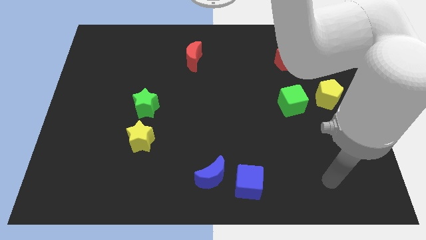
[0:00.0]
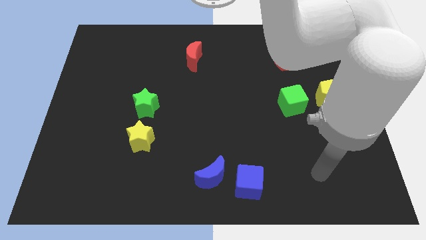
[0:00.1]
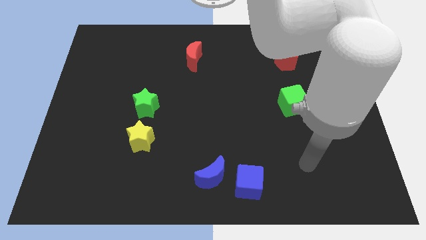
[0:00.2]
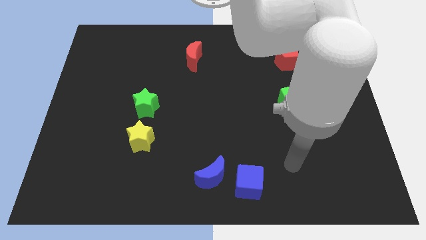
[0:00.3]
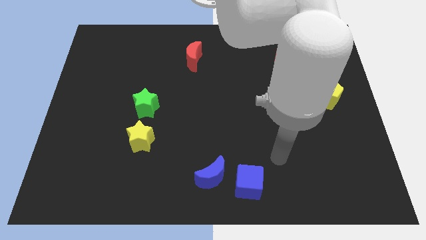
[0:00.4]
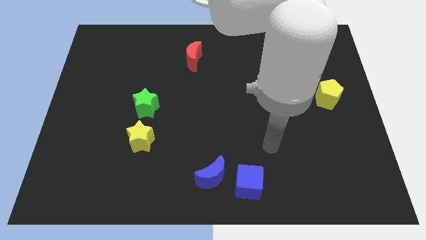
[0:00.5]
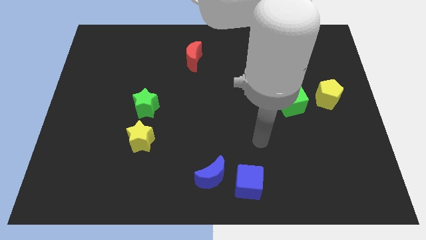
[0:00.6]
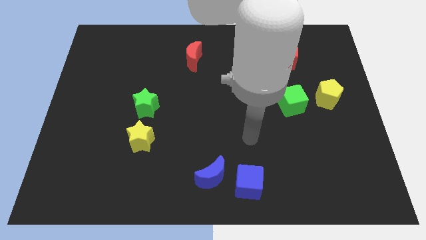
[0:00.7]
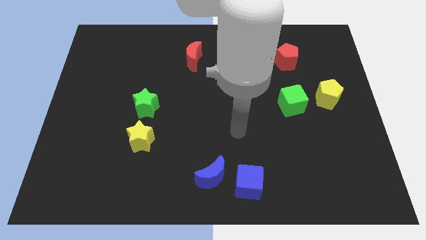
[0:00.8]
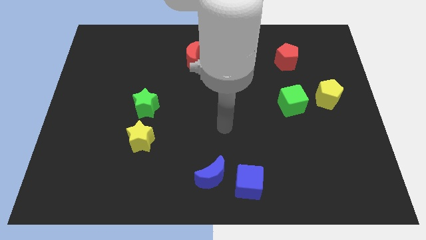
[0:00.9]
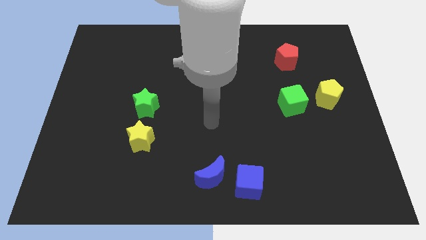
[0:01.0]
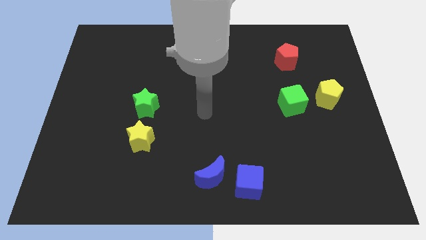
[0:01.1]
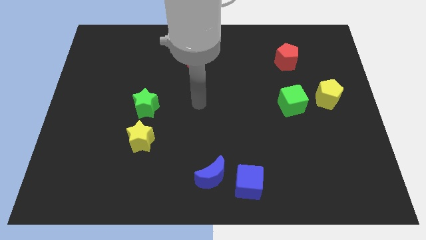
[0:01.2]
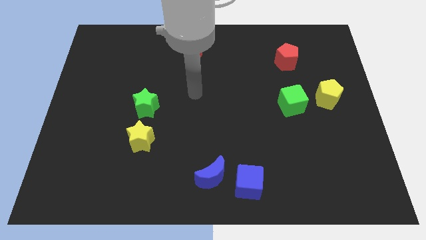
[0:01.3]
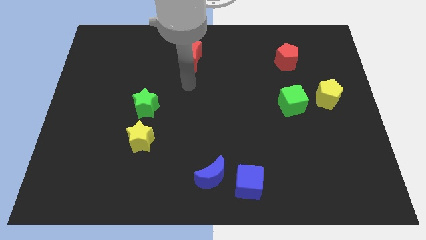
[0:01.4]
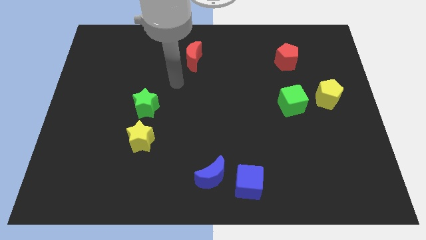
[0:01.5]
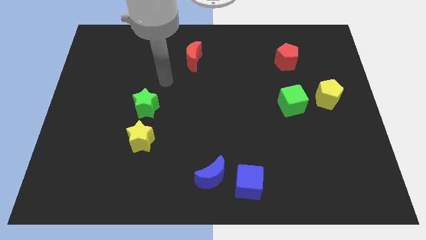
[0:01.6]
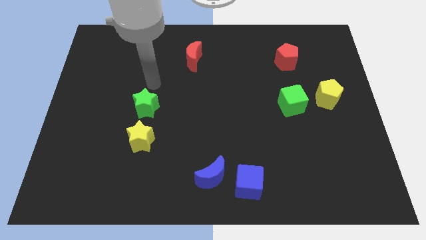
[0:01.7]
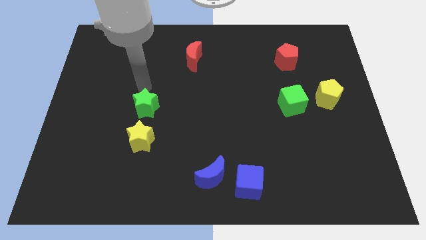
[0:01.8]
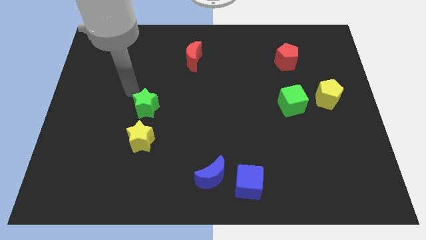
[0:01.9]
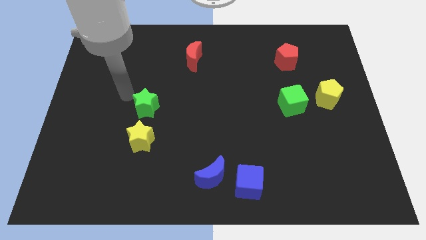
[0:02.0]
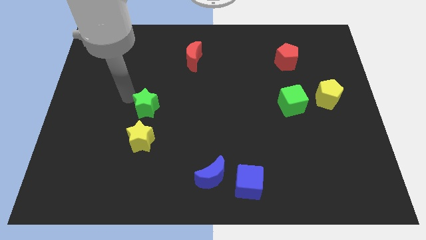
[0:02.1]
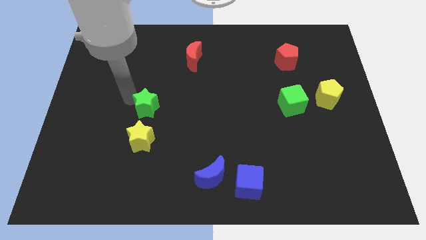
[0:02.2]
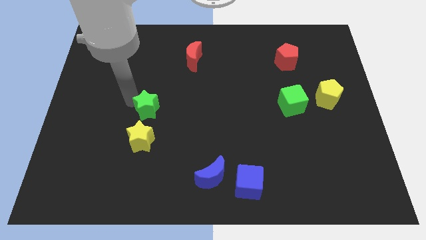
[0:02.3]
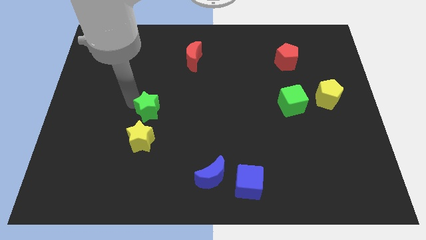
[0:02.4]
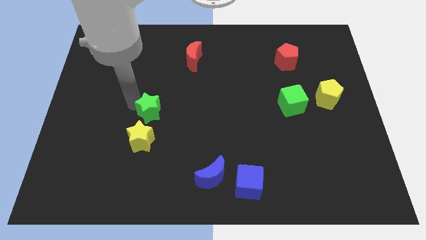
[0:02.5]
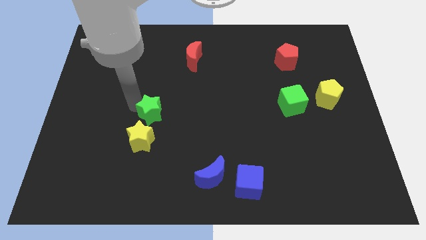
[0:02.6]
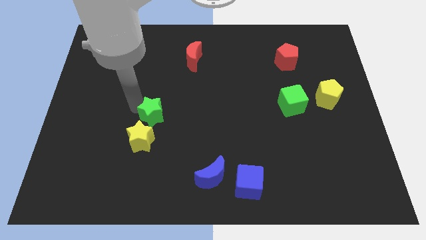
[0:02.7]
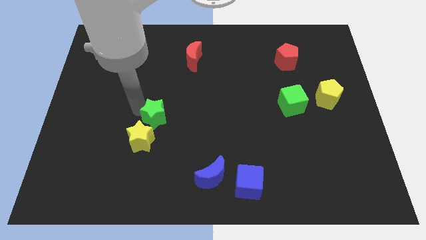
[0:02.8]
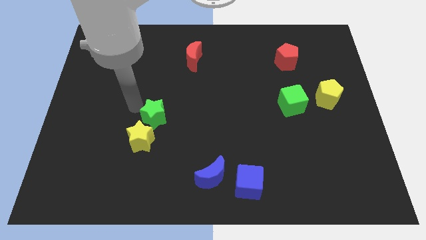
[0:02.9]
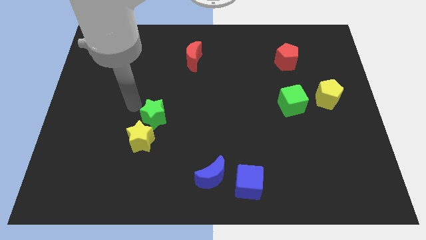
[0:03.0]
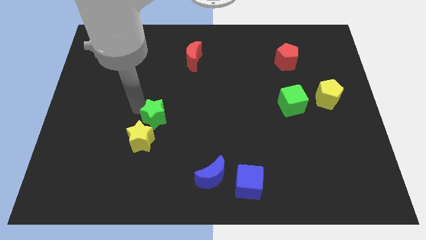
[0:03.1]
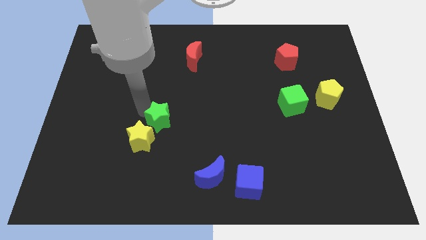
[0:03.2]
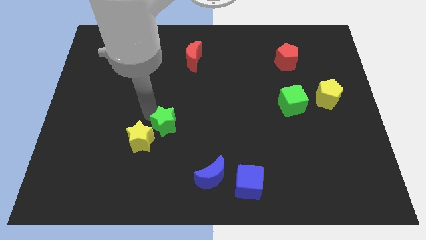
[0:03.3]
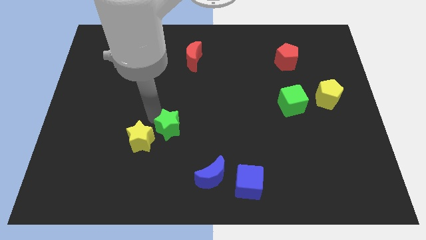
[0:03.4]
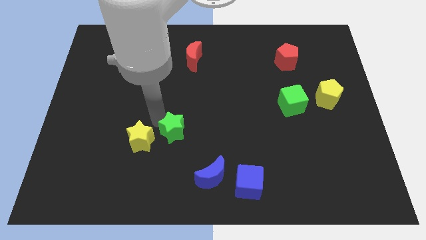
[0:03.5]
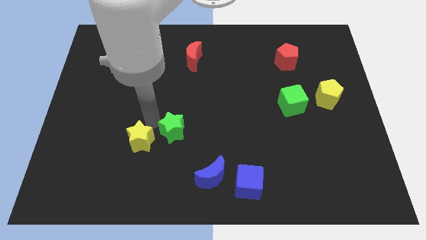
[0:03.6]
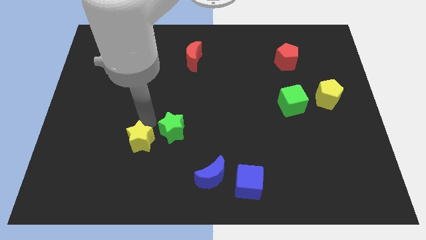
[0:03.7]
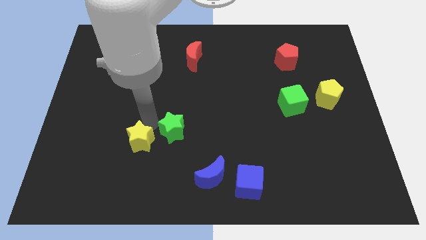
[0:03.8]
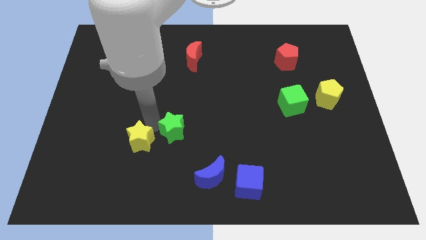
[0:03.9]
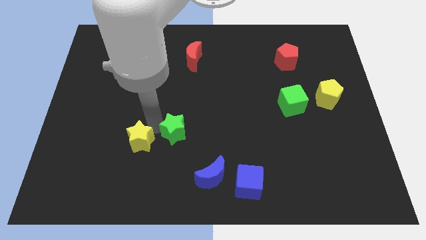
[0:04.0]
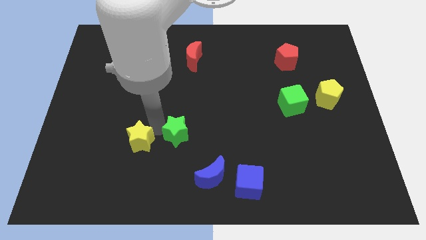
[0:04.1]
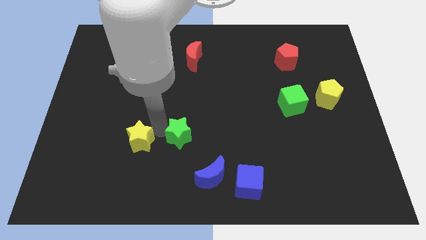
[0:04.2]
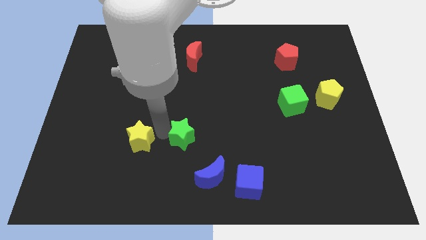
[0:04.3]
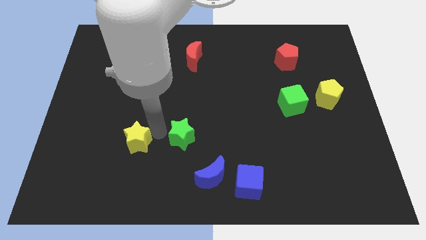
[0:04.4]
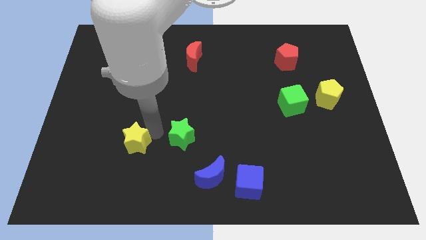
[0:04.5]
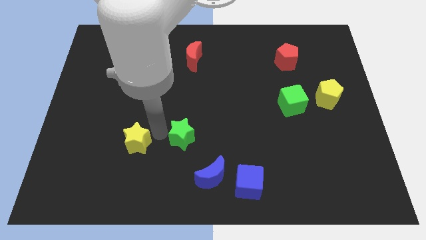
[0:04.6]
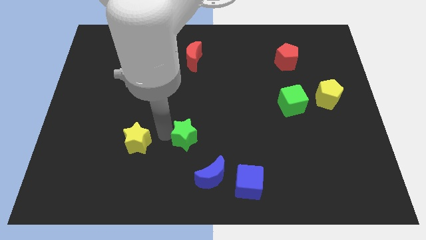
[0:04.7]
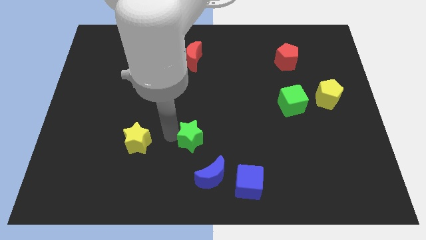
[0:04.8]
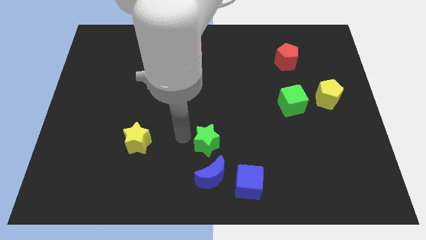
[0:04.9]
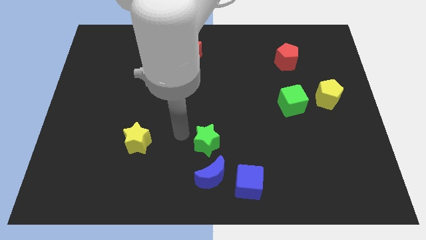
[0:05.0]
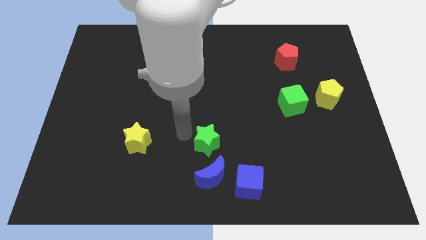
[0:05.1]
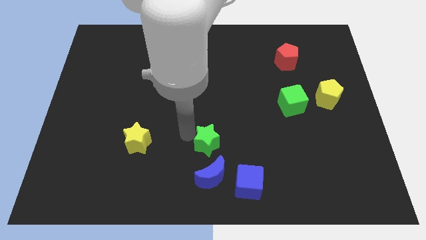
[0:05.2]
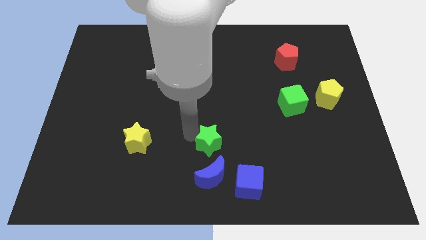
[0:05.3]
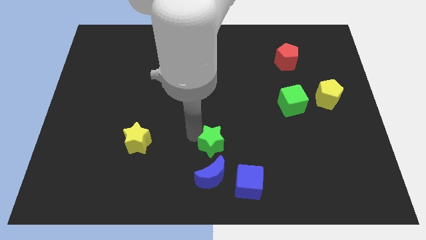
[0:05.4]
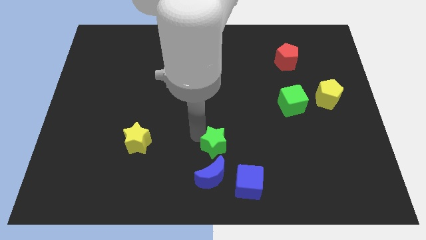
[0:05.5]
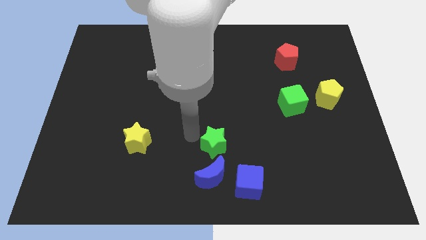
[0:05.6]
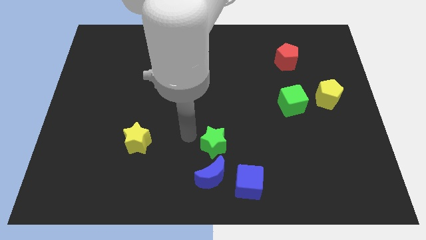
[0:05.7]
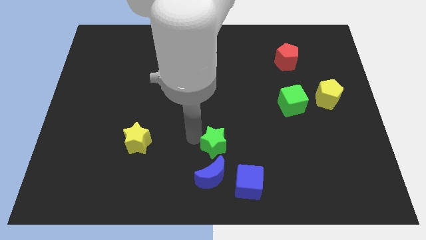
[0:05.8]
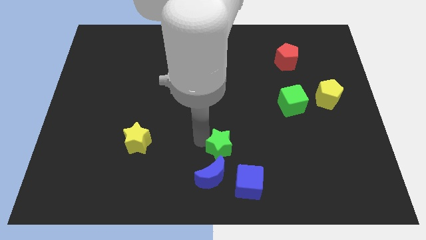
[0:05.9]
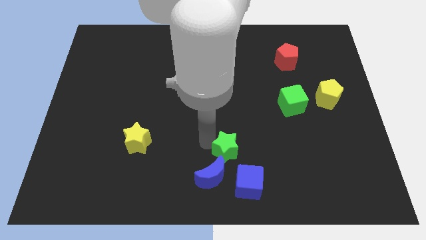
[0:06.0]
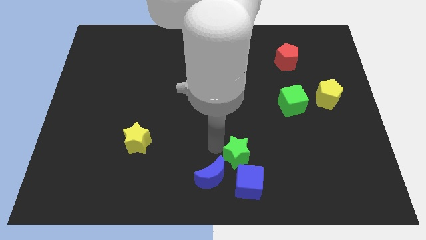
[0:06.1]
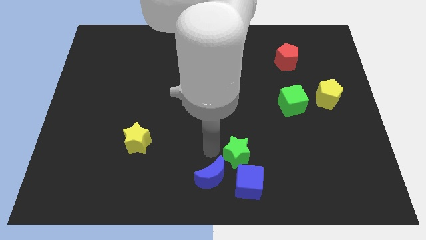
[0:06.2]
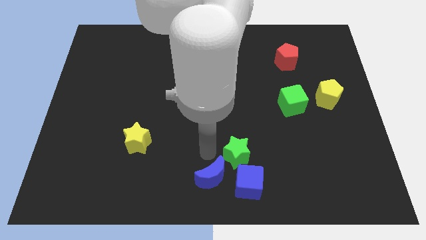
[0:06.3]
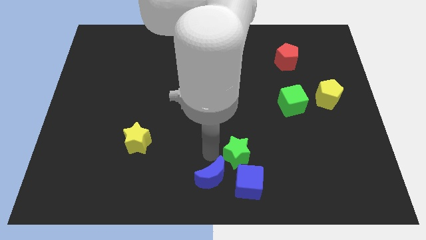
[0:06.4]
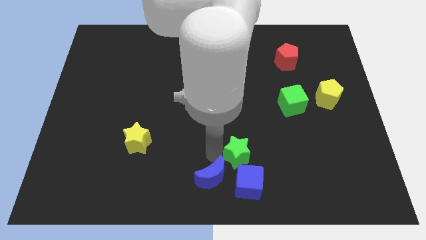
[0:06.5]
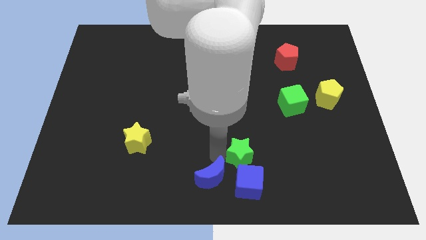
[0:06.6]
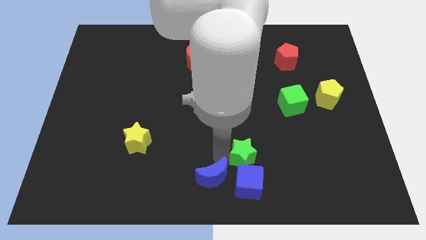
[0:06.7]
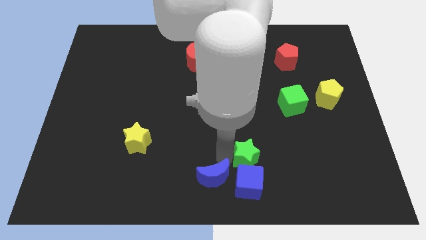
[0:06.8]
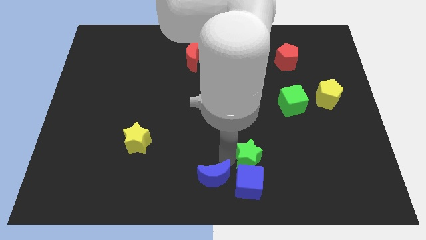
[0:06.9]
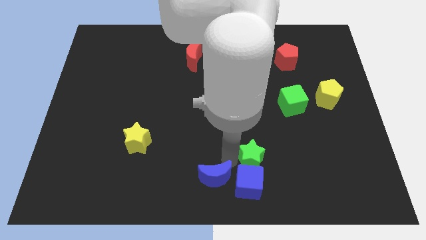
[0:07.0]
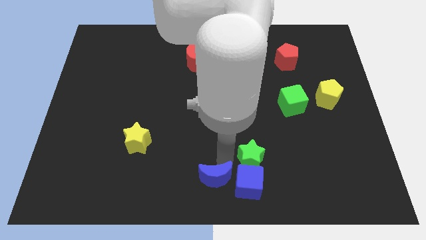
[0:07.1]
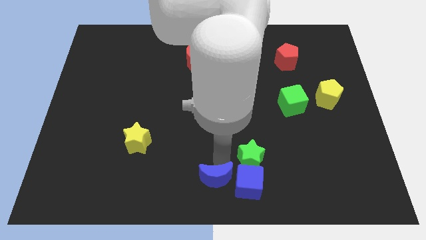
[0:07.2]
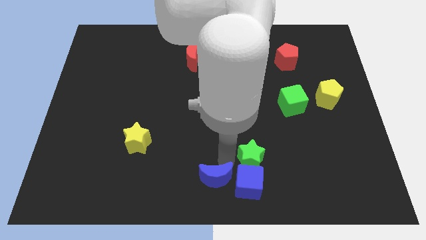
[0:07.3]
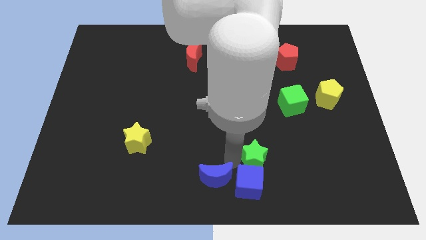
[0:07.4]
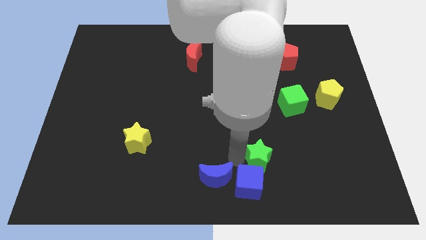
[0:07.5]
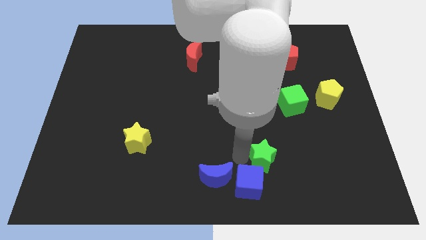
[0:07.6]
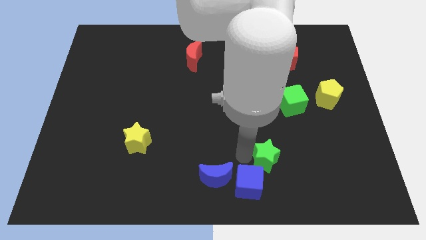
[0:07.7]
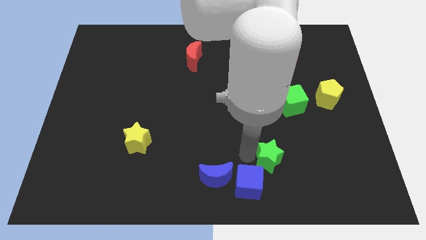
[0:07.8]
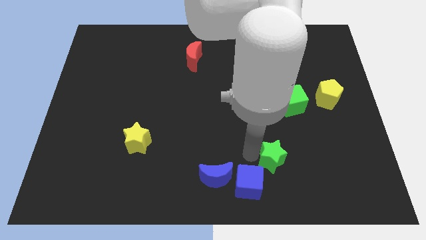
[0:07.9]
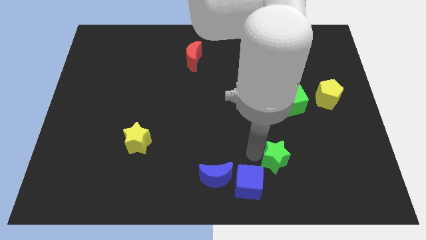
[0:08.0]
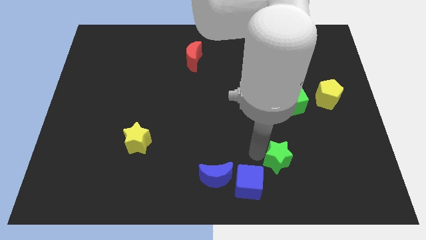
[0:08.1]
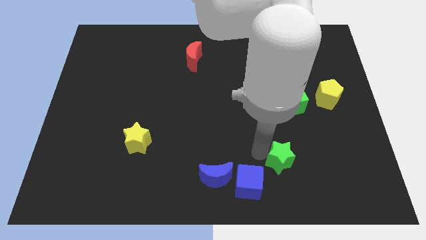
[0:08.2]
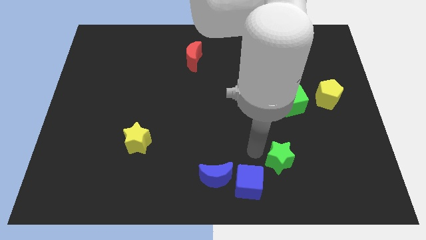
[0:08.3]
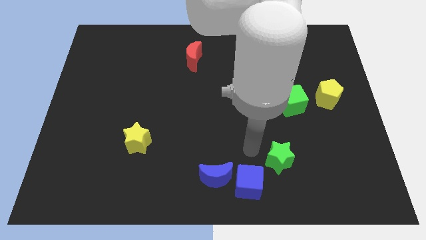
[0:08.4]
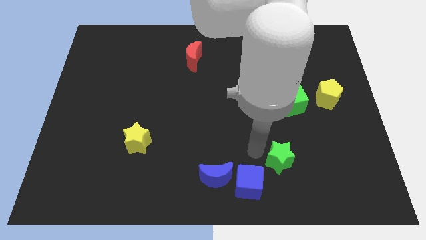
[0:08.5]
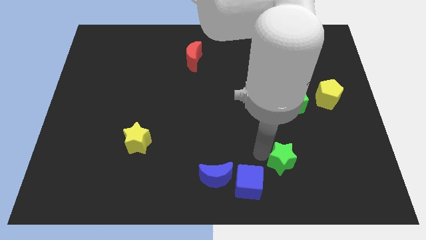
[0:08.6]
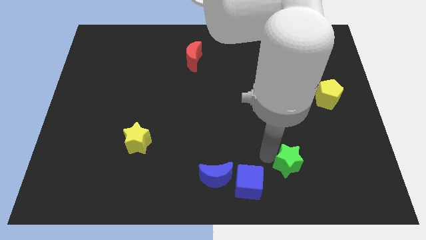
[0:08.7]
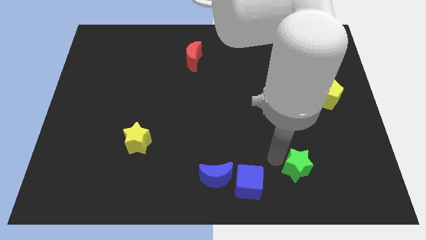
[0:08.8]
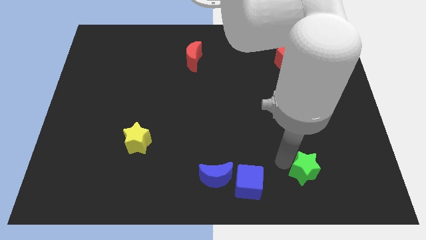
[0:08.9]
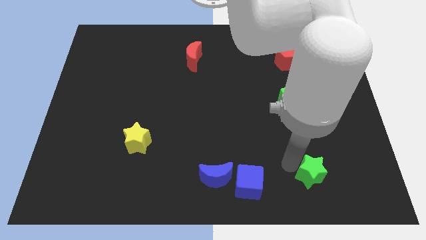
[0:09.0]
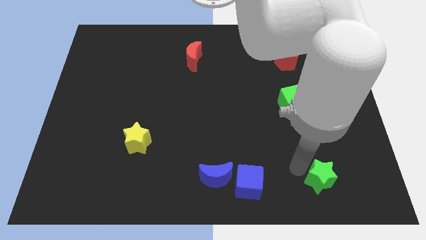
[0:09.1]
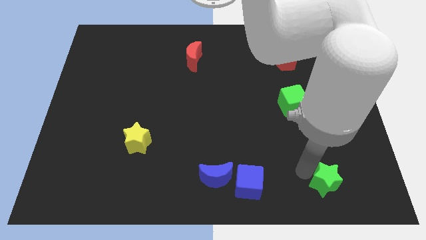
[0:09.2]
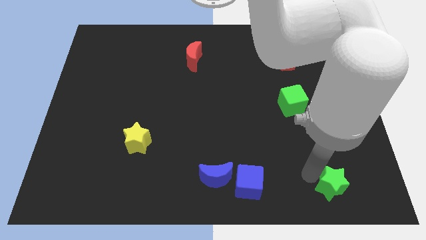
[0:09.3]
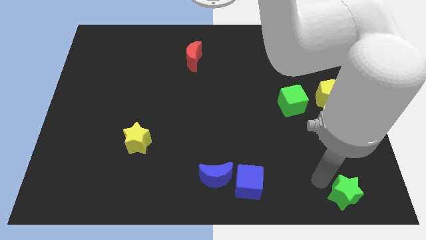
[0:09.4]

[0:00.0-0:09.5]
slide the green star to the bottom right of the board
